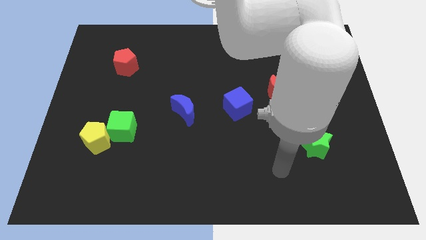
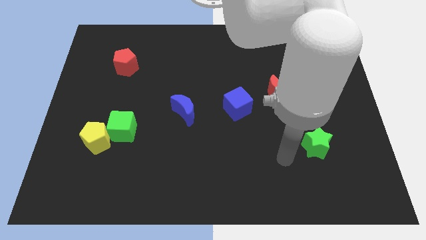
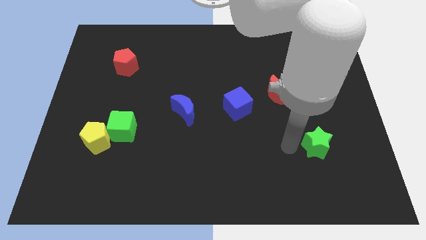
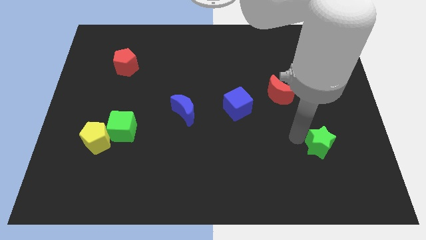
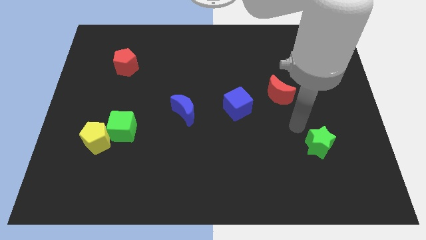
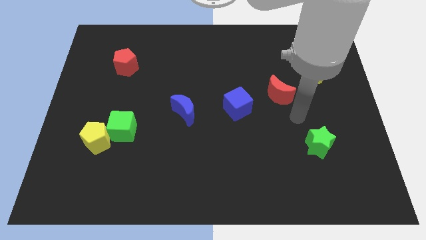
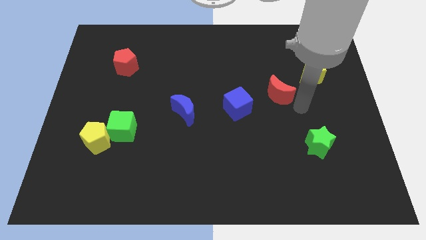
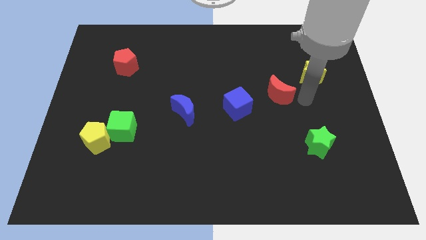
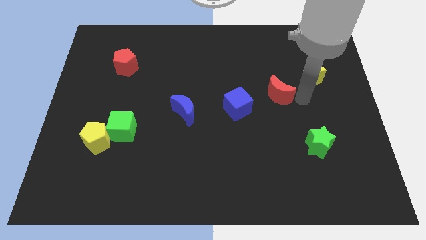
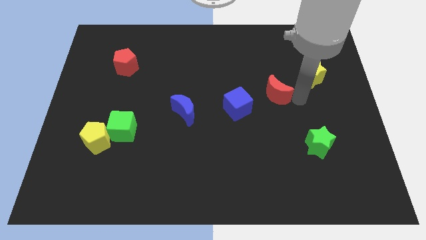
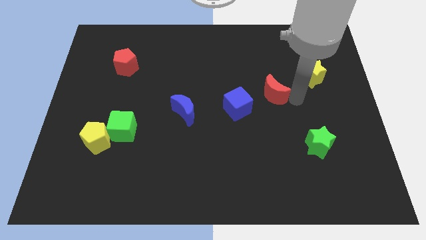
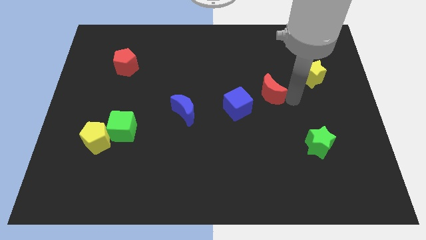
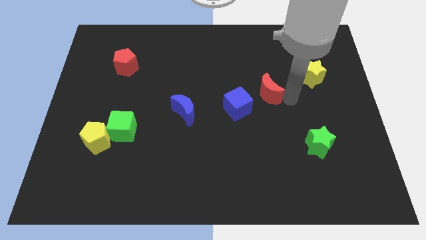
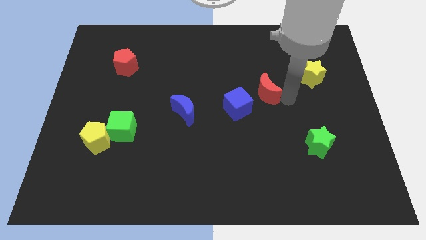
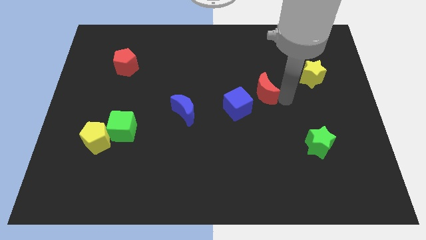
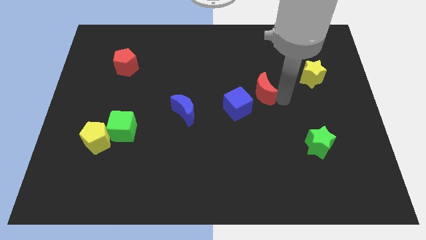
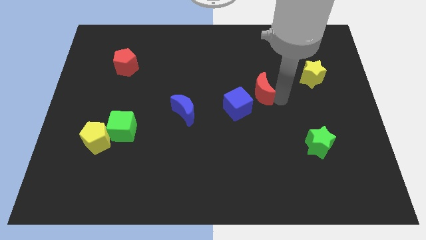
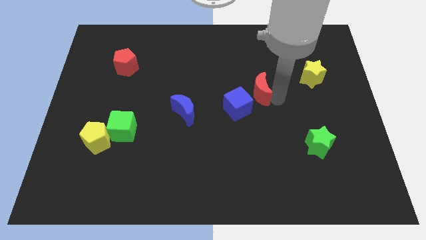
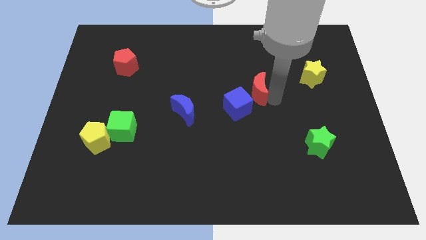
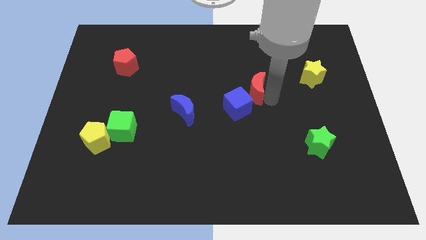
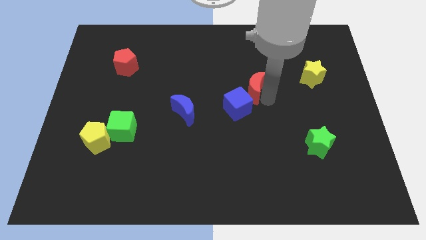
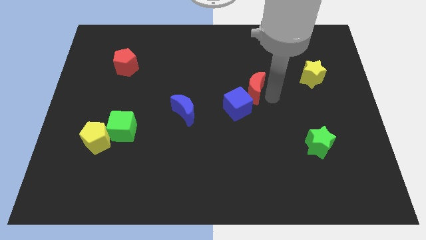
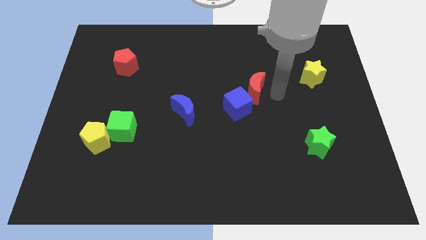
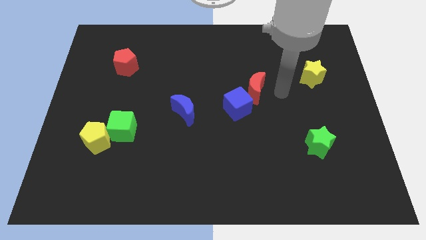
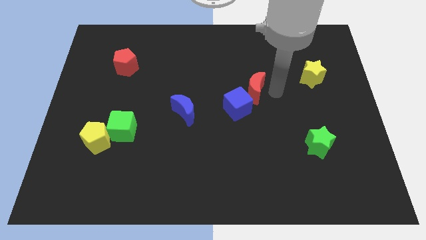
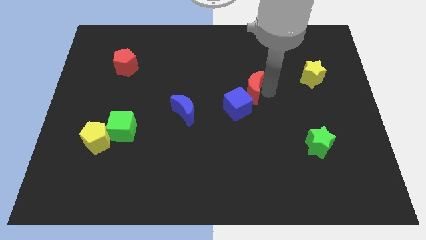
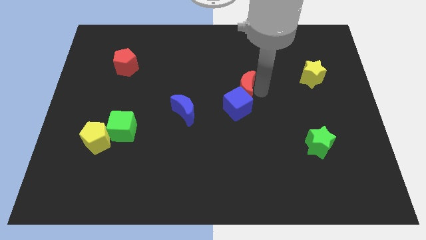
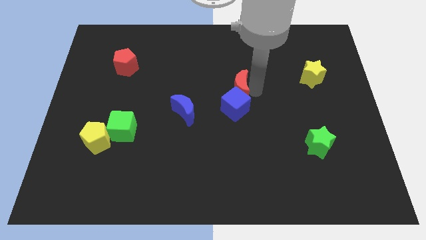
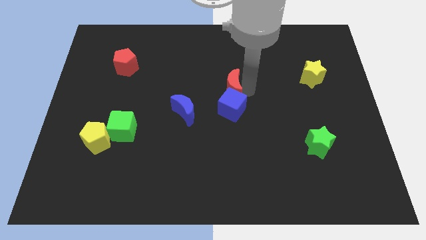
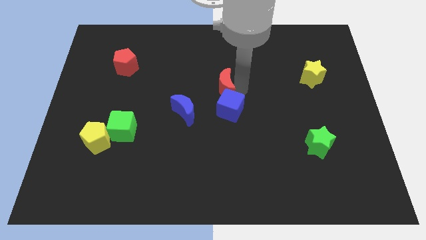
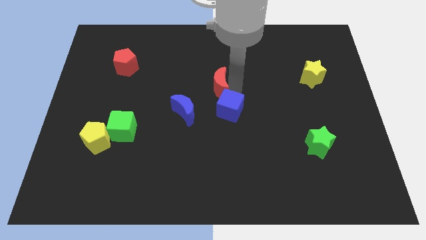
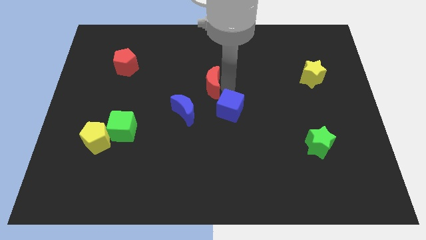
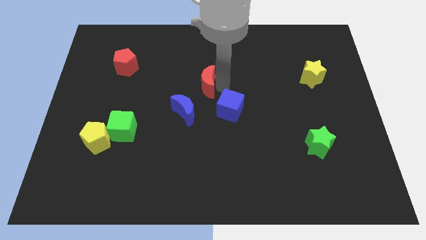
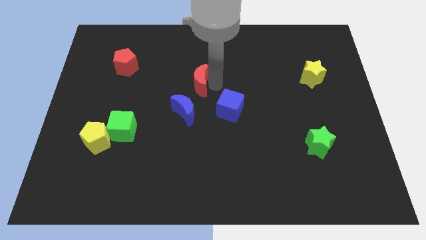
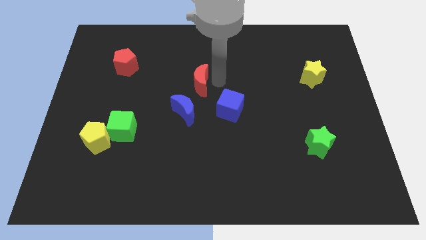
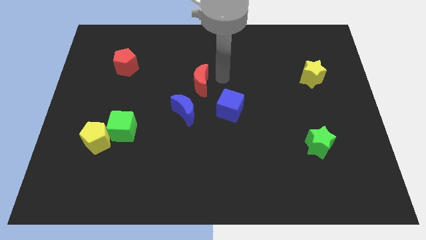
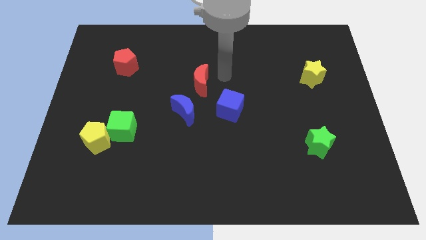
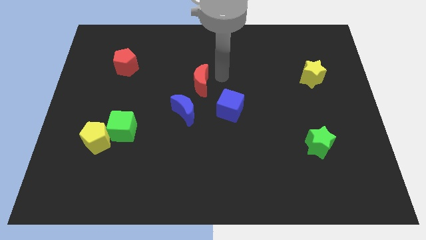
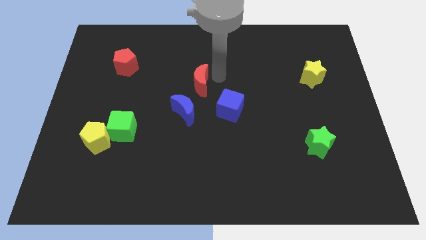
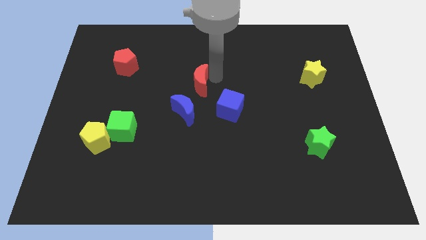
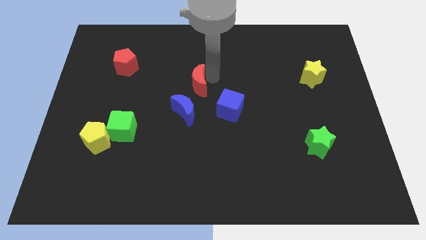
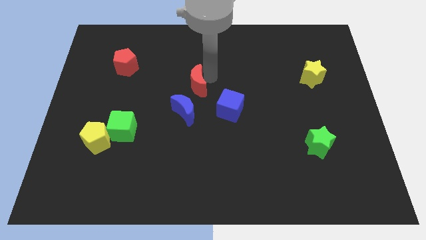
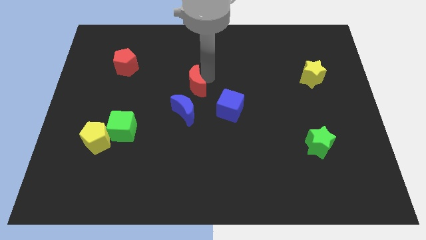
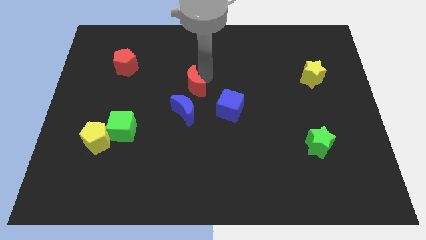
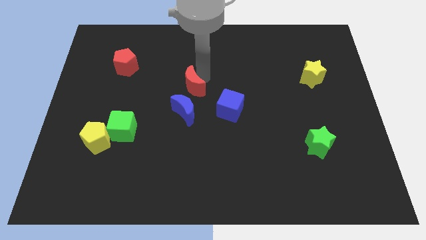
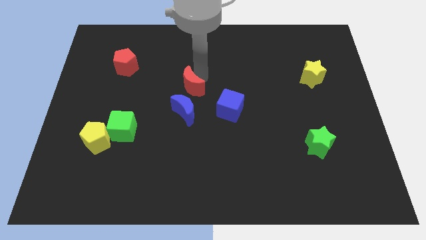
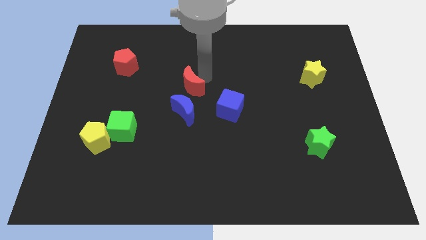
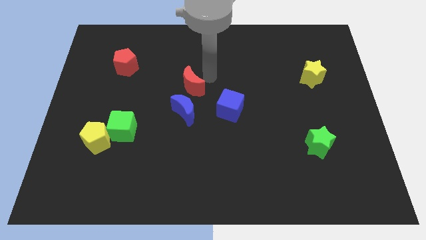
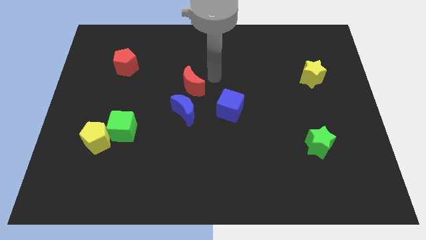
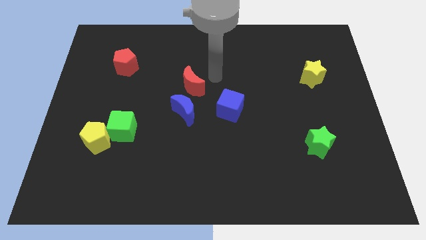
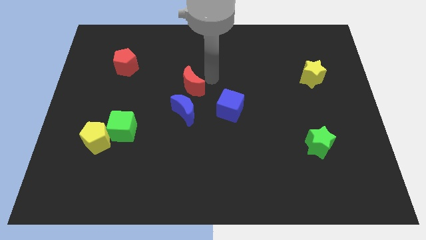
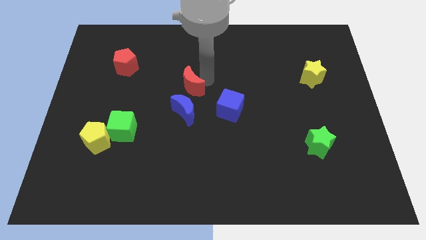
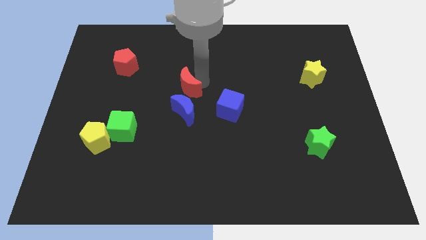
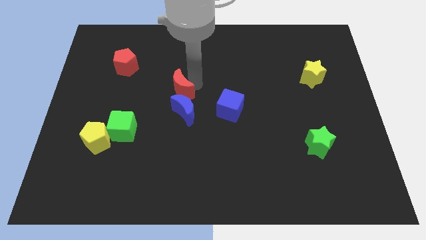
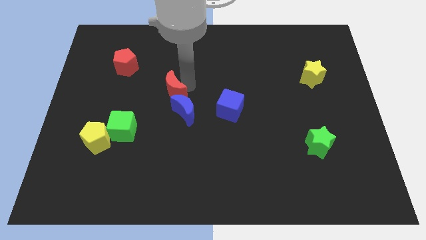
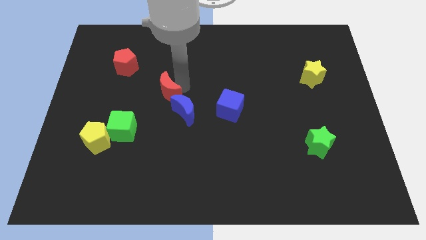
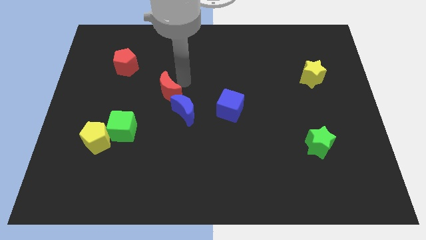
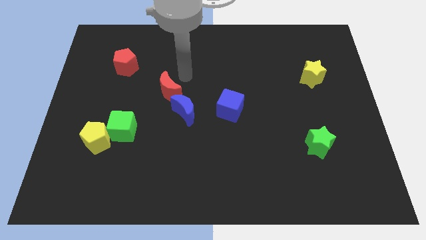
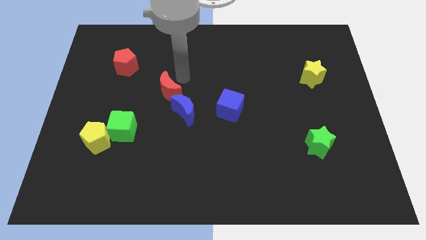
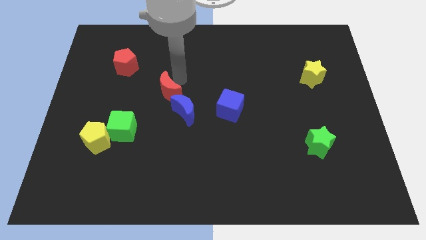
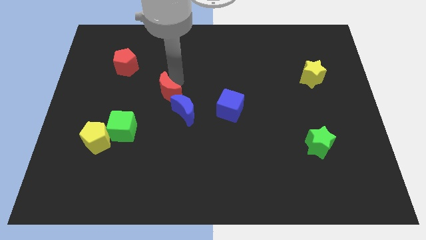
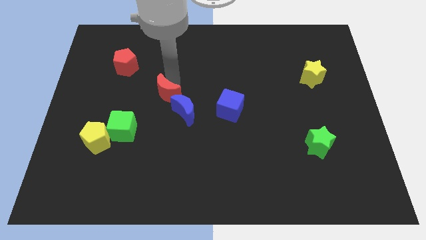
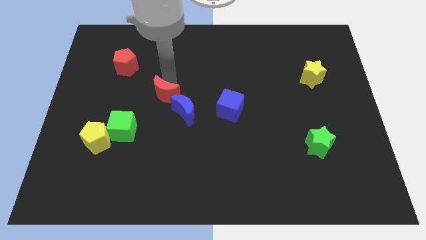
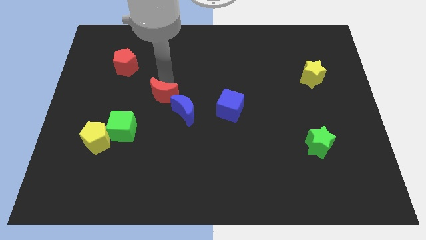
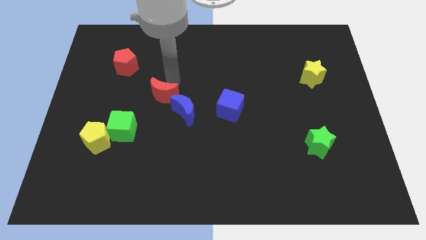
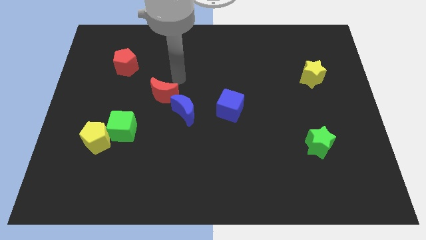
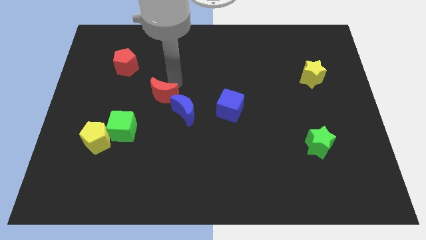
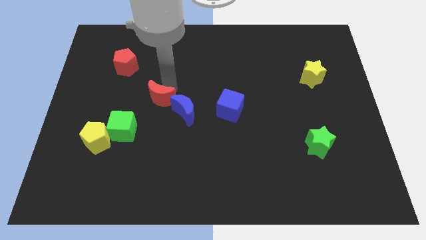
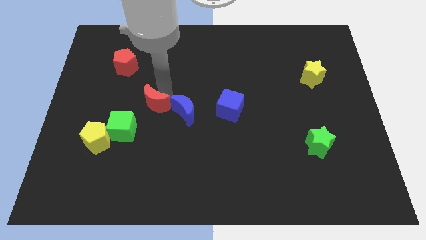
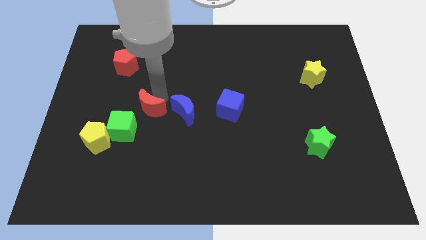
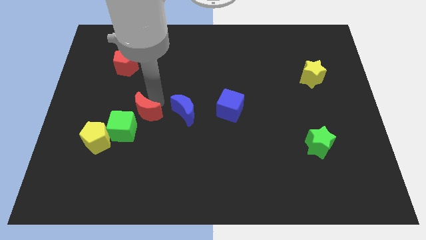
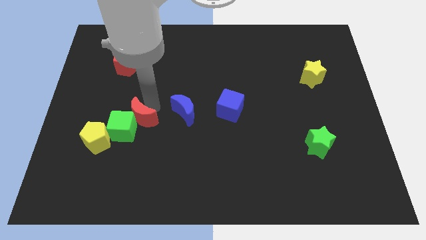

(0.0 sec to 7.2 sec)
slide the red moon close to the green cube

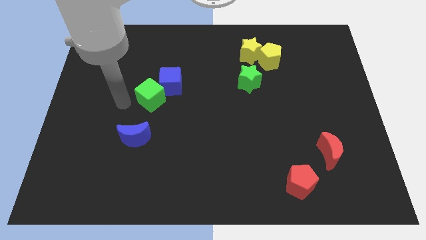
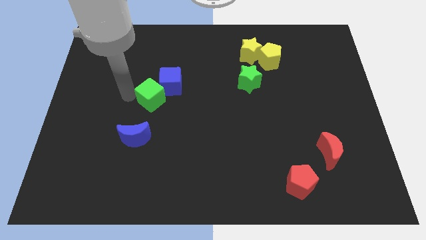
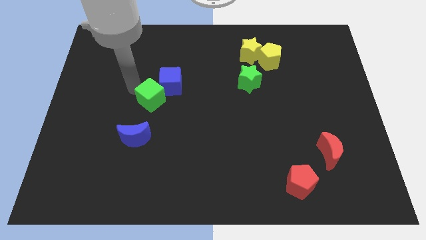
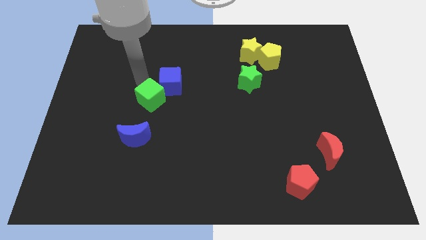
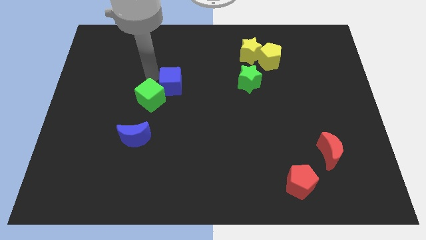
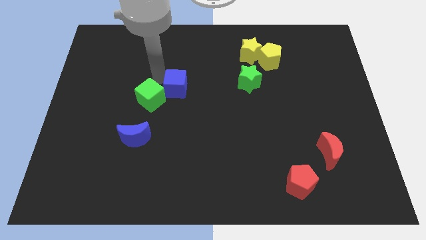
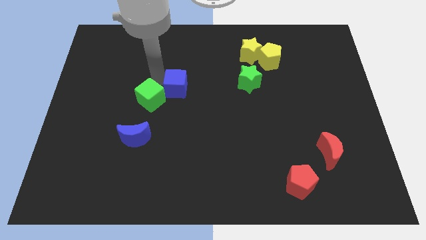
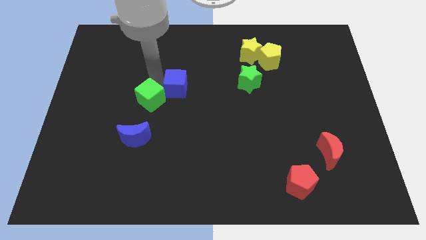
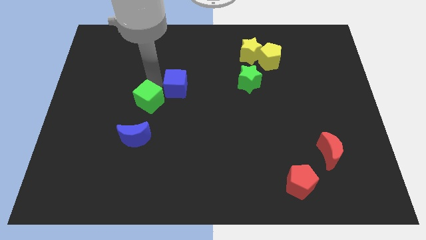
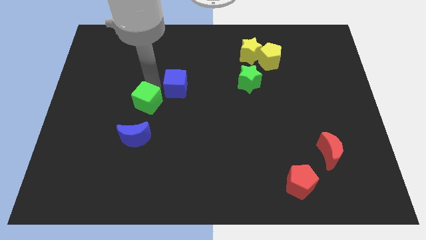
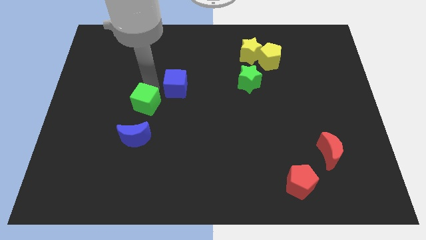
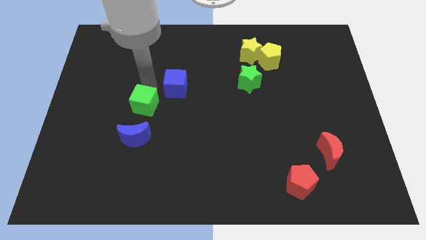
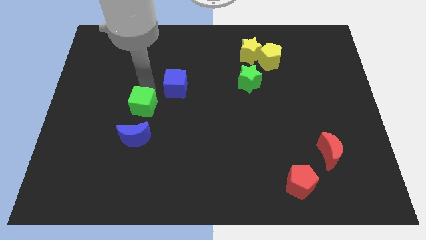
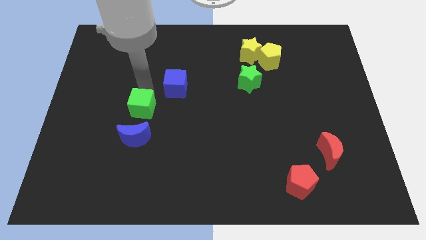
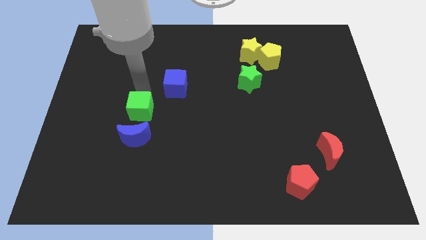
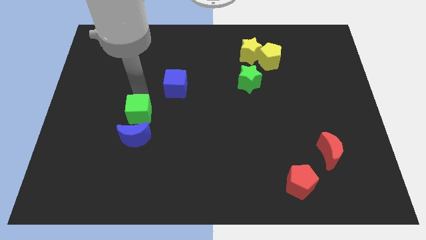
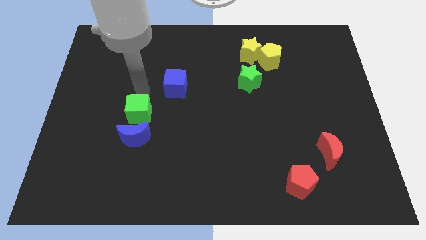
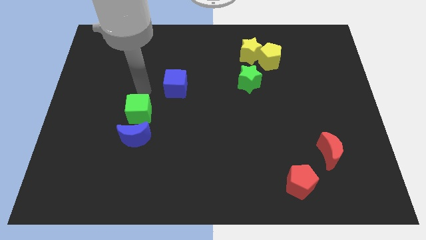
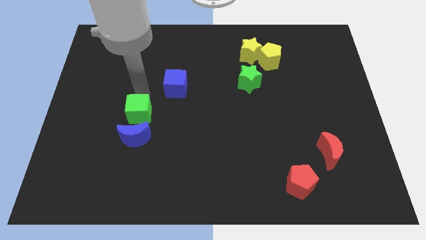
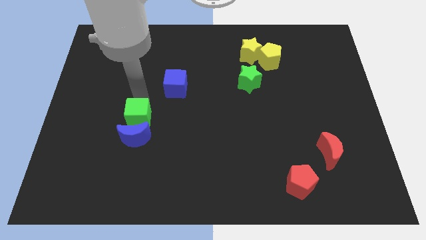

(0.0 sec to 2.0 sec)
slide the green cube towards the blue moon
